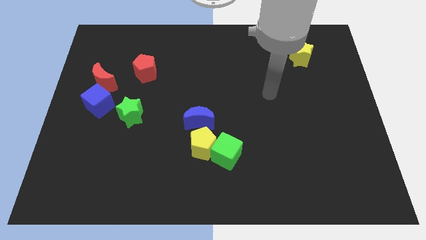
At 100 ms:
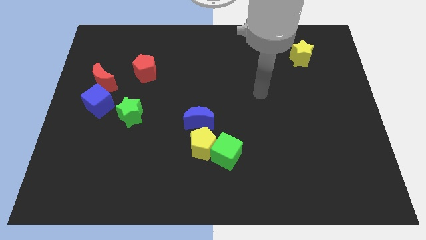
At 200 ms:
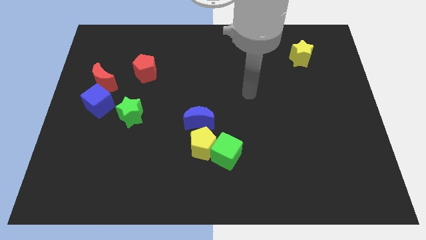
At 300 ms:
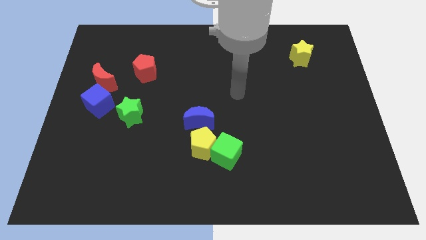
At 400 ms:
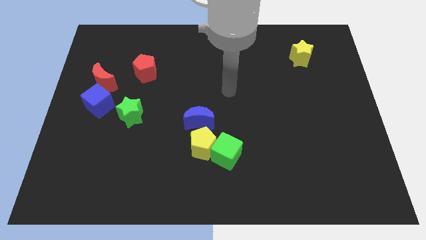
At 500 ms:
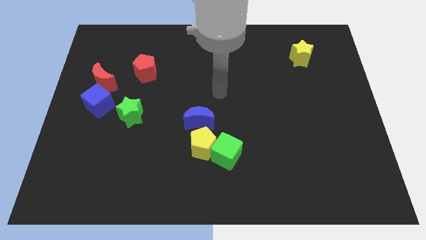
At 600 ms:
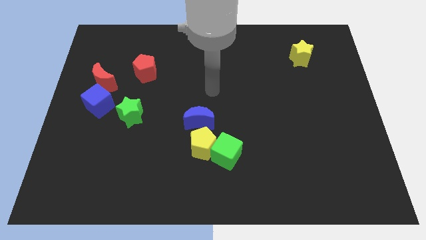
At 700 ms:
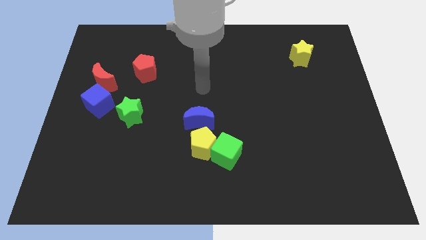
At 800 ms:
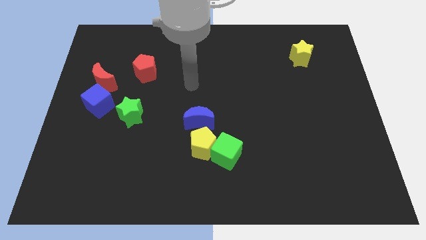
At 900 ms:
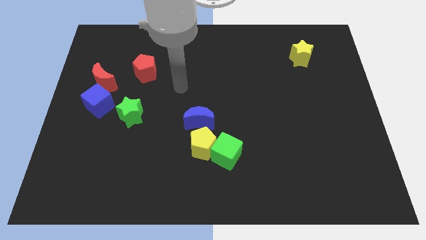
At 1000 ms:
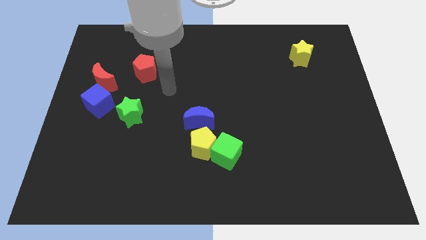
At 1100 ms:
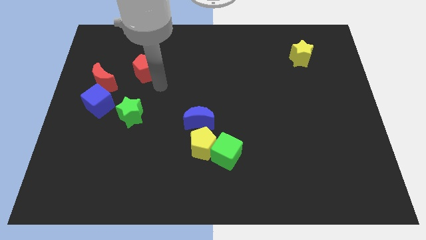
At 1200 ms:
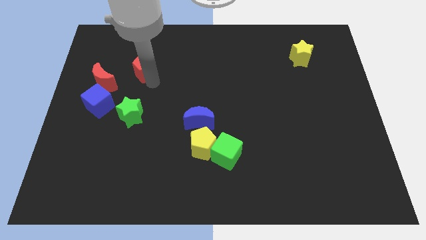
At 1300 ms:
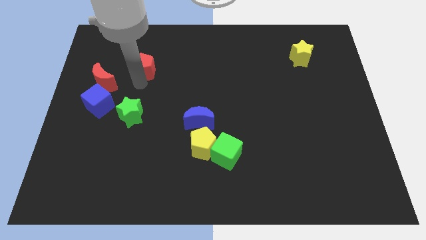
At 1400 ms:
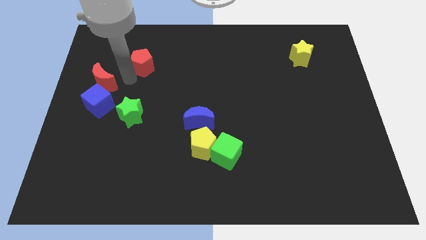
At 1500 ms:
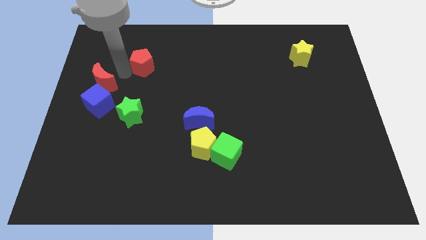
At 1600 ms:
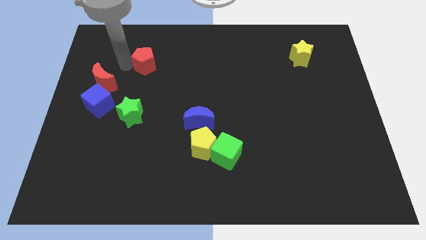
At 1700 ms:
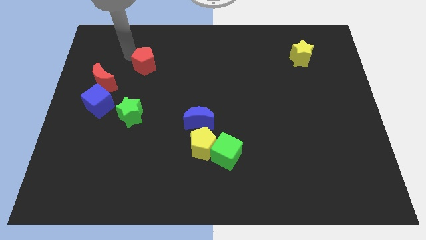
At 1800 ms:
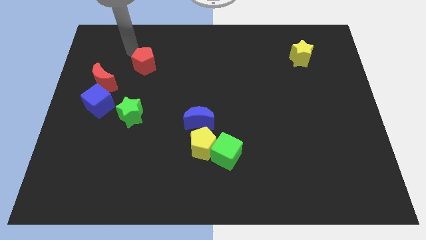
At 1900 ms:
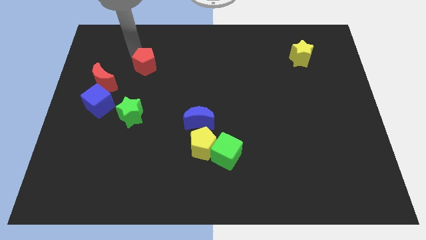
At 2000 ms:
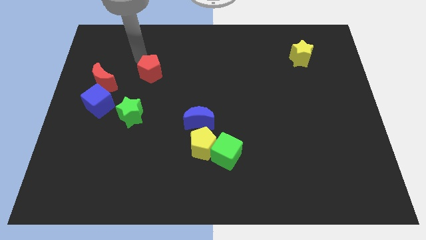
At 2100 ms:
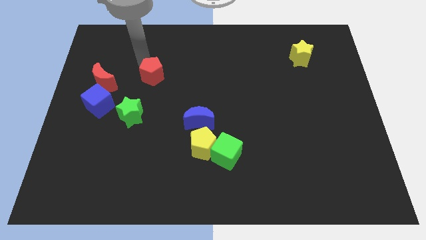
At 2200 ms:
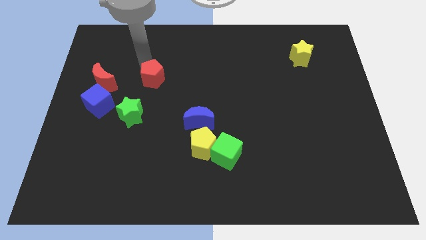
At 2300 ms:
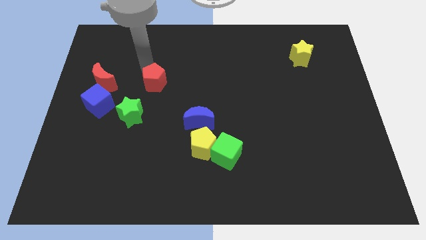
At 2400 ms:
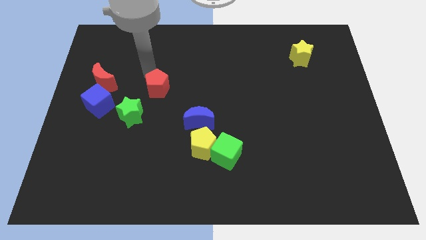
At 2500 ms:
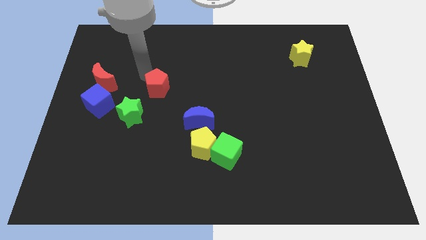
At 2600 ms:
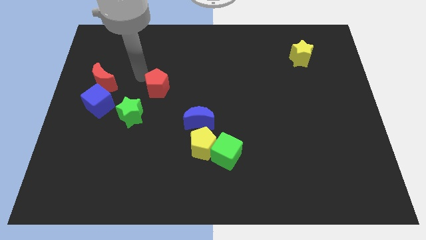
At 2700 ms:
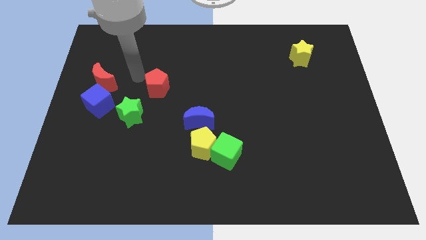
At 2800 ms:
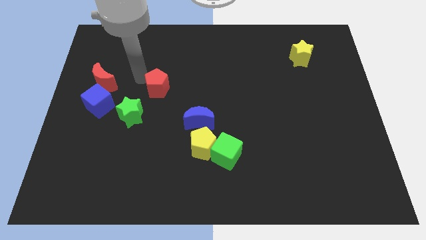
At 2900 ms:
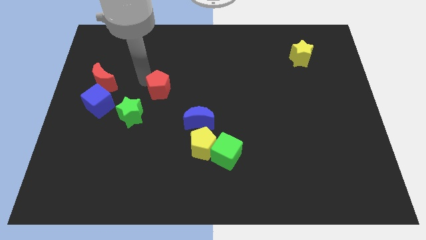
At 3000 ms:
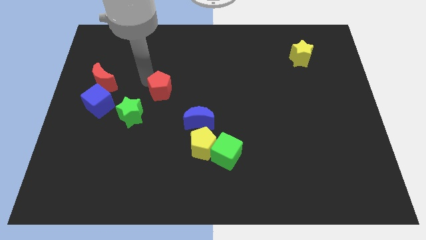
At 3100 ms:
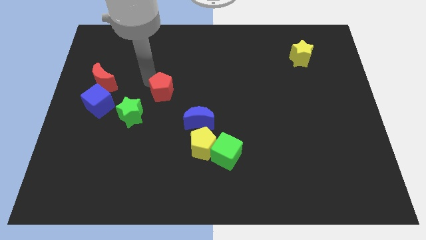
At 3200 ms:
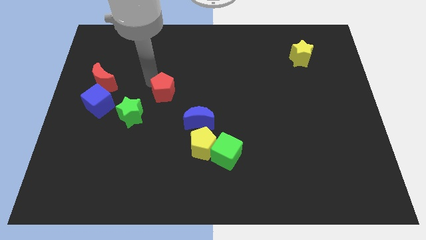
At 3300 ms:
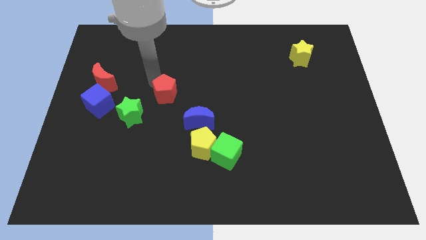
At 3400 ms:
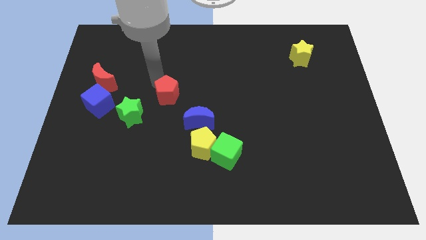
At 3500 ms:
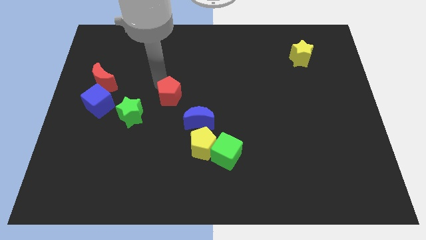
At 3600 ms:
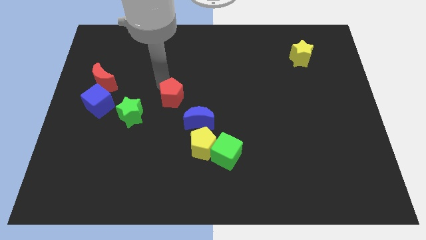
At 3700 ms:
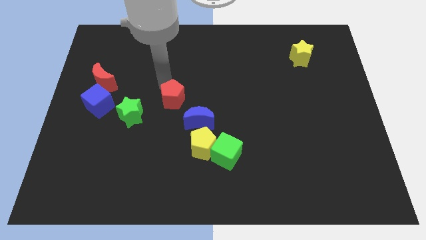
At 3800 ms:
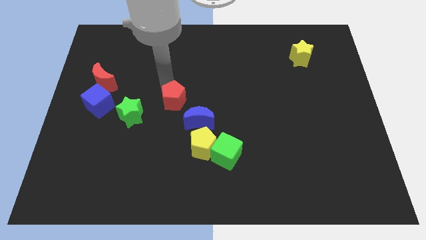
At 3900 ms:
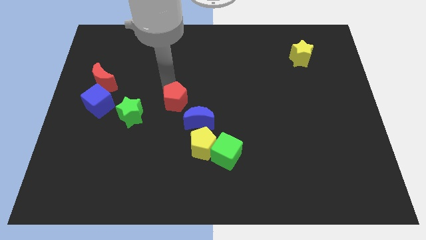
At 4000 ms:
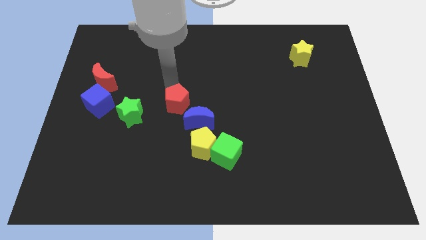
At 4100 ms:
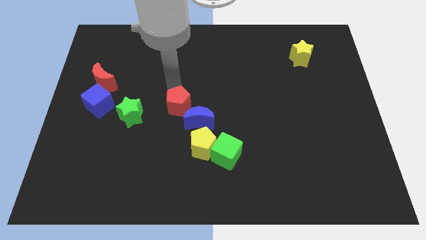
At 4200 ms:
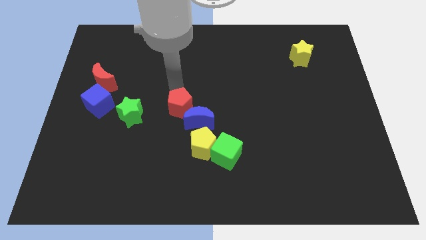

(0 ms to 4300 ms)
push the red pentagon to the blue moon

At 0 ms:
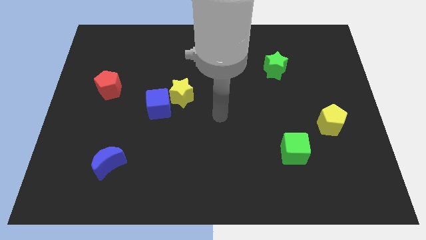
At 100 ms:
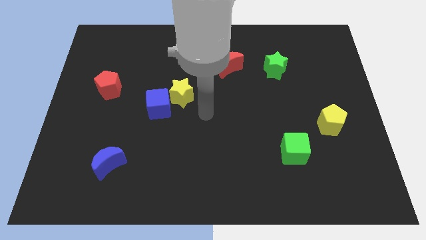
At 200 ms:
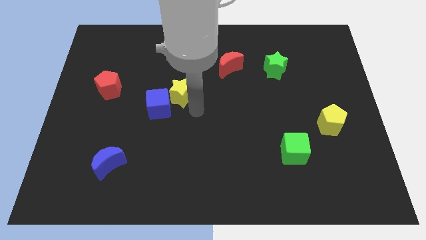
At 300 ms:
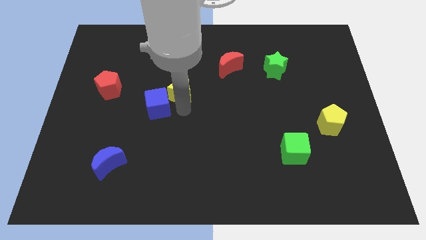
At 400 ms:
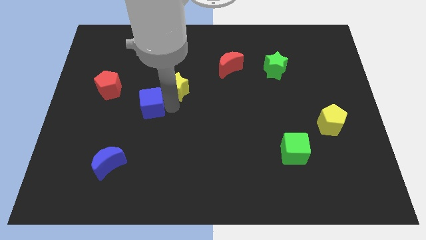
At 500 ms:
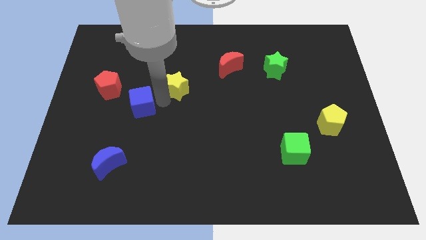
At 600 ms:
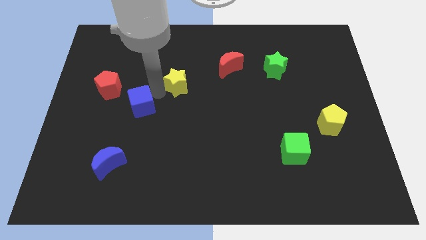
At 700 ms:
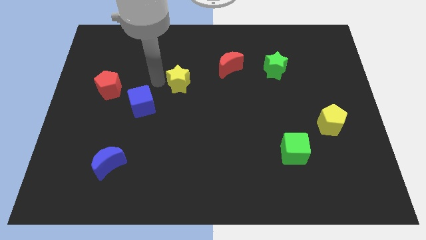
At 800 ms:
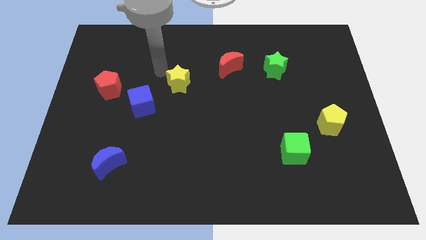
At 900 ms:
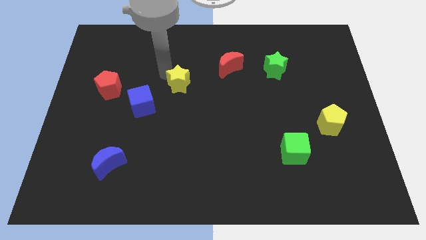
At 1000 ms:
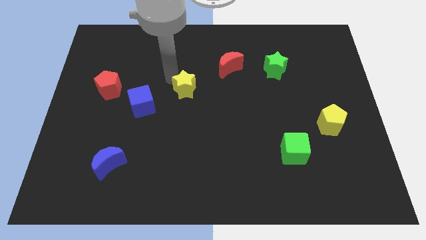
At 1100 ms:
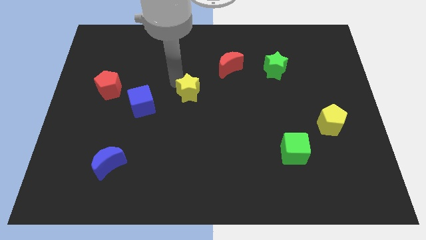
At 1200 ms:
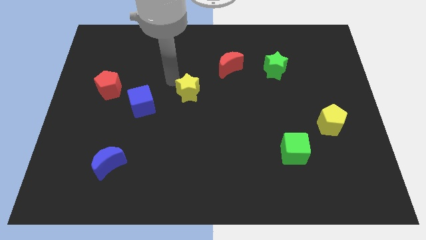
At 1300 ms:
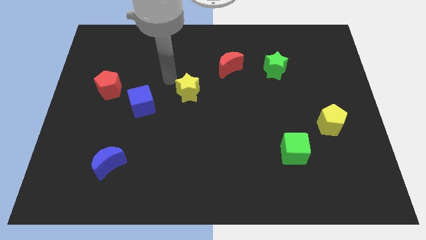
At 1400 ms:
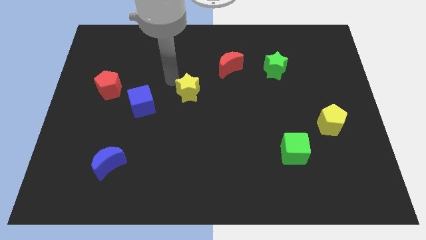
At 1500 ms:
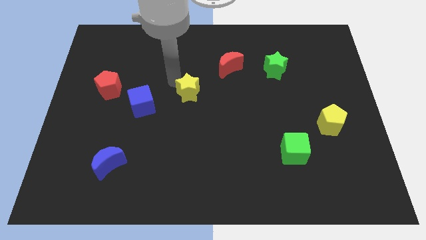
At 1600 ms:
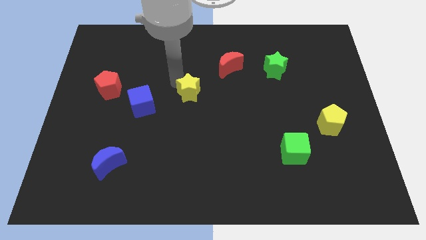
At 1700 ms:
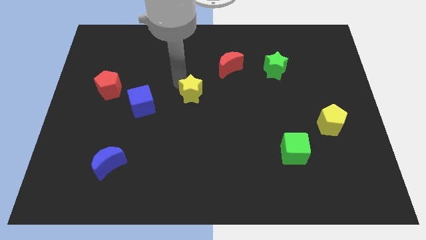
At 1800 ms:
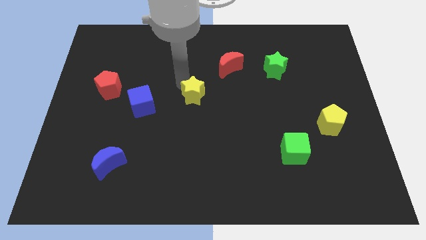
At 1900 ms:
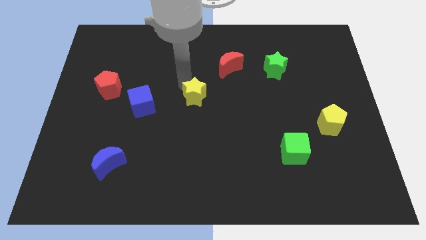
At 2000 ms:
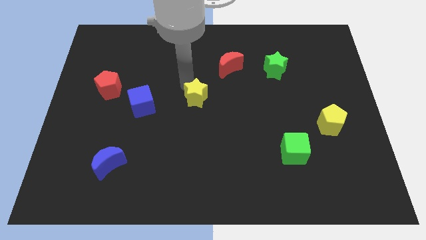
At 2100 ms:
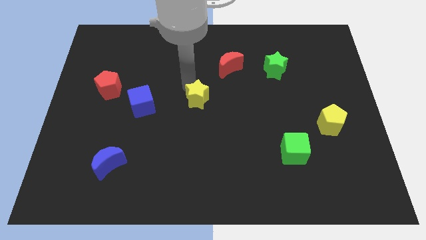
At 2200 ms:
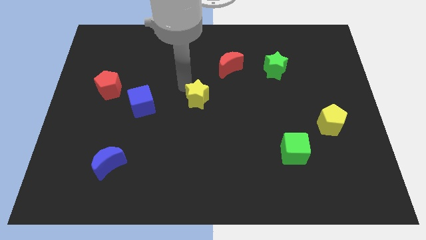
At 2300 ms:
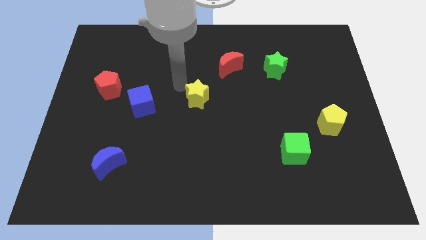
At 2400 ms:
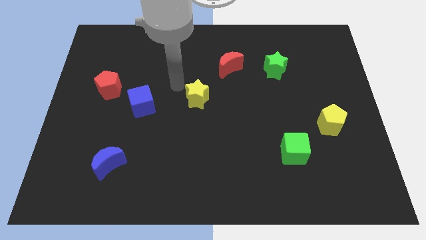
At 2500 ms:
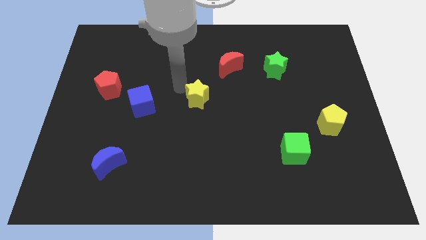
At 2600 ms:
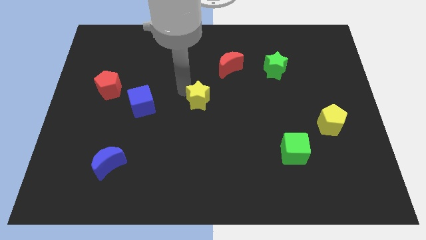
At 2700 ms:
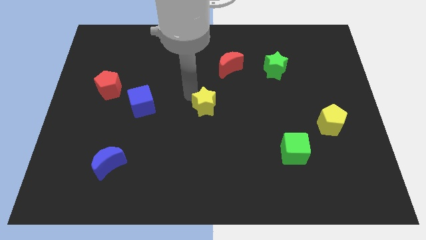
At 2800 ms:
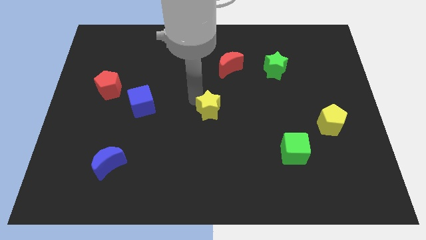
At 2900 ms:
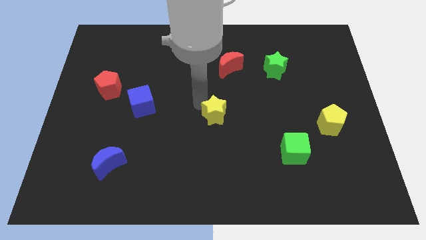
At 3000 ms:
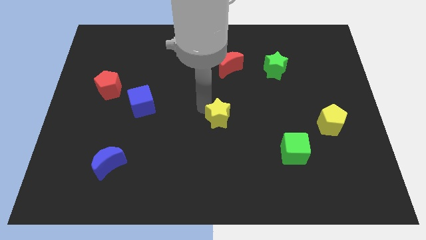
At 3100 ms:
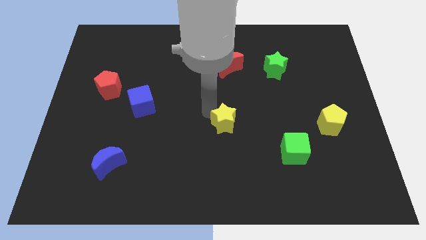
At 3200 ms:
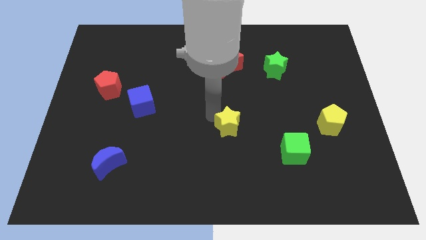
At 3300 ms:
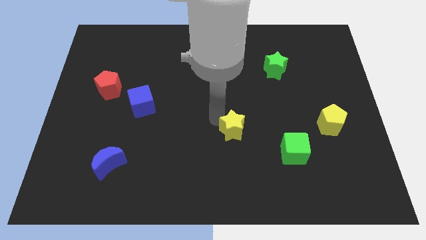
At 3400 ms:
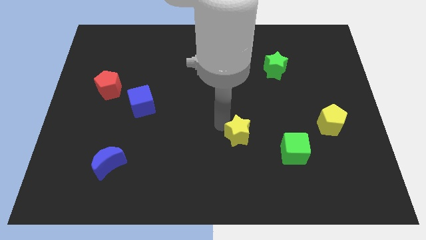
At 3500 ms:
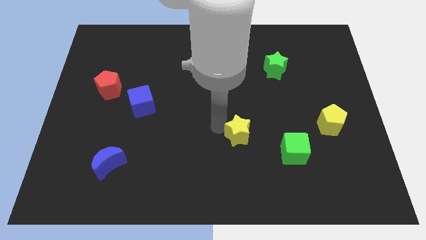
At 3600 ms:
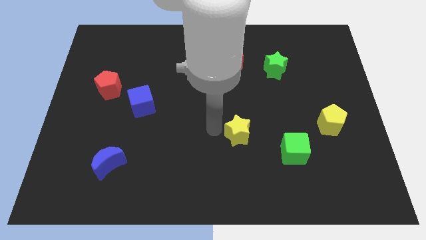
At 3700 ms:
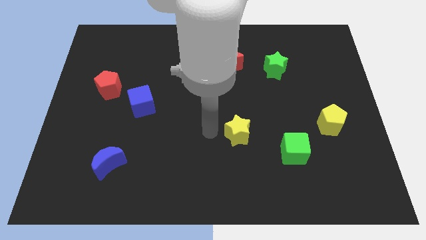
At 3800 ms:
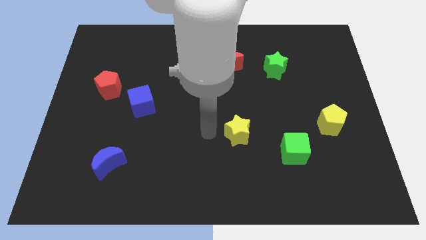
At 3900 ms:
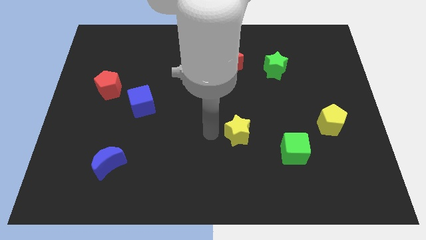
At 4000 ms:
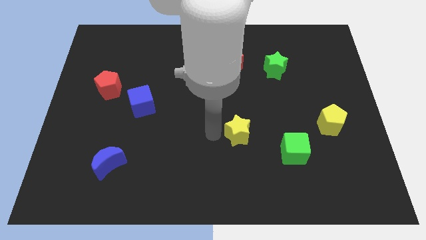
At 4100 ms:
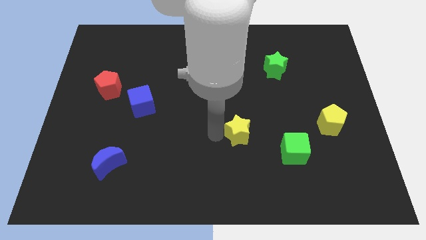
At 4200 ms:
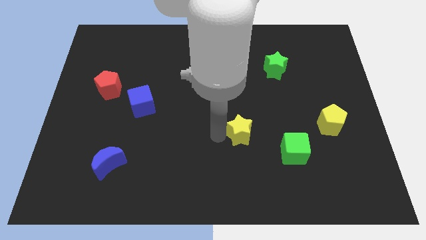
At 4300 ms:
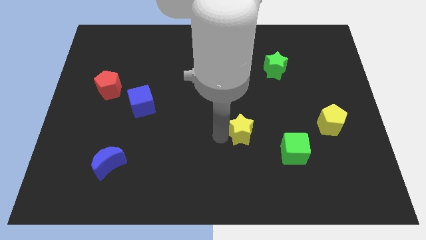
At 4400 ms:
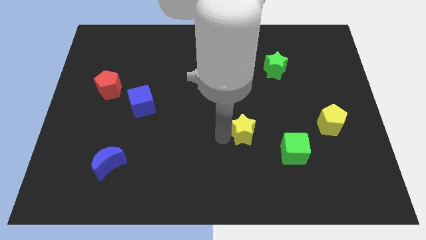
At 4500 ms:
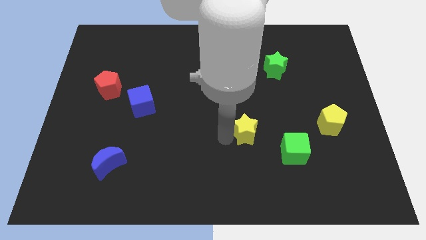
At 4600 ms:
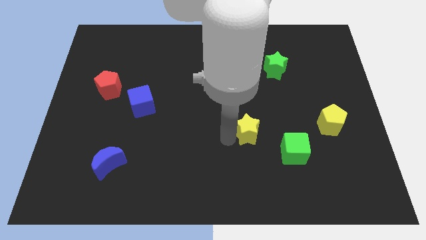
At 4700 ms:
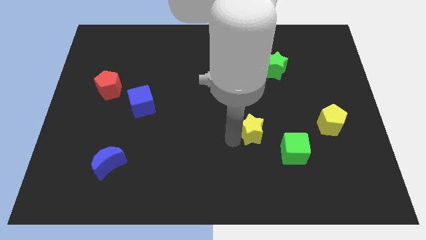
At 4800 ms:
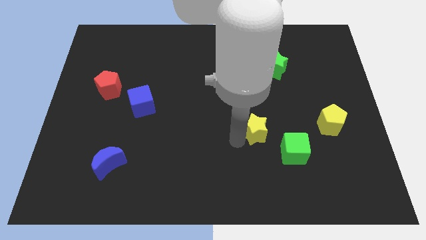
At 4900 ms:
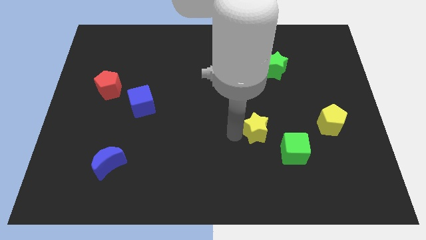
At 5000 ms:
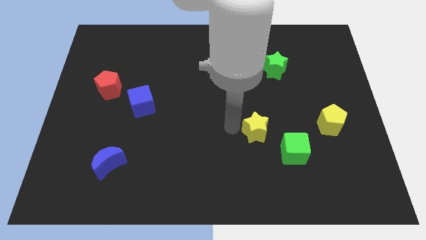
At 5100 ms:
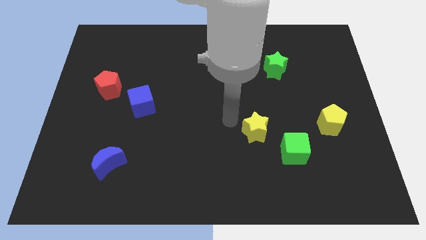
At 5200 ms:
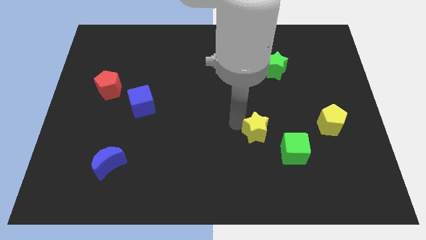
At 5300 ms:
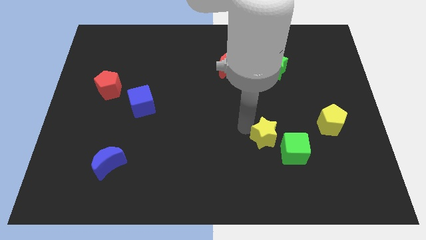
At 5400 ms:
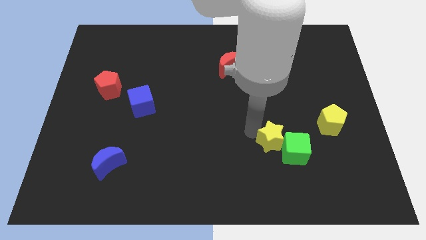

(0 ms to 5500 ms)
put the yellow star next to the green cube
